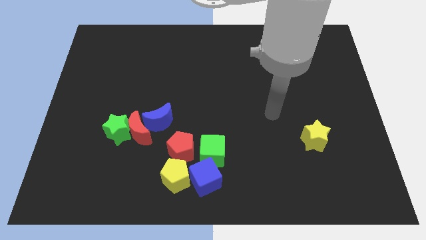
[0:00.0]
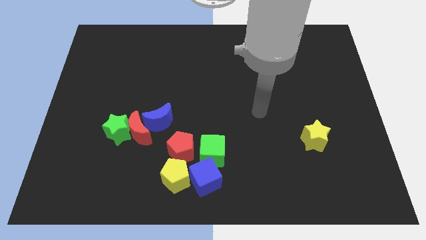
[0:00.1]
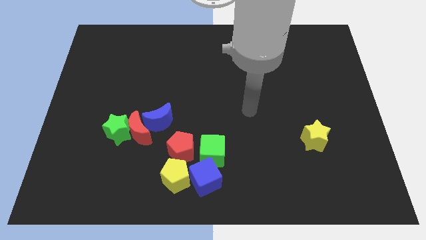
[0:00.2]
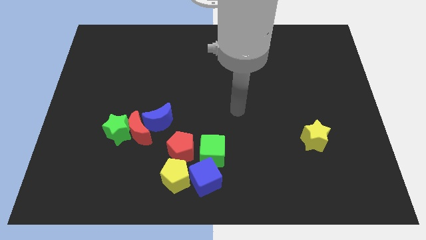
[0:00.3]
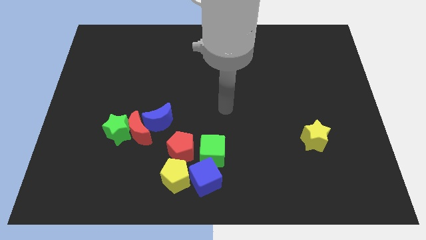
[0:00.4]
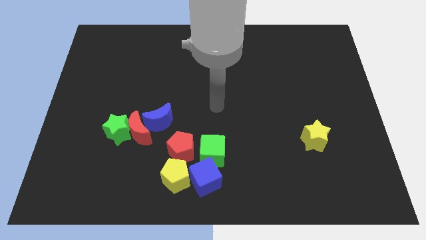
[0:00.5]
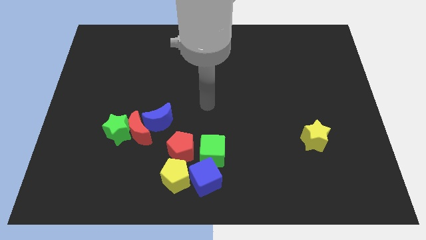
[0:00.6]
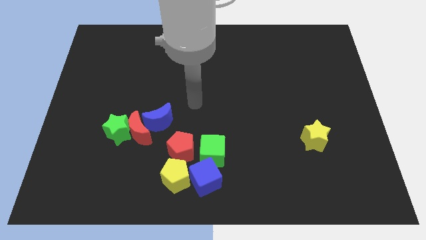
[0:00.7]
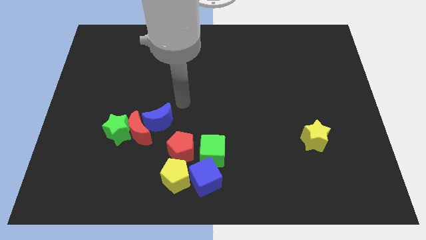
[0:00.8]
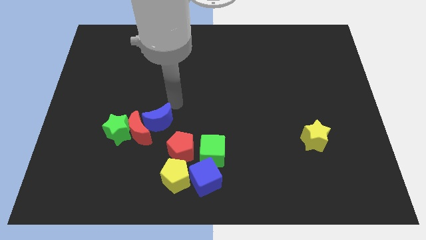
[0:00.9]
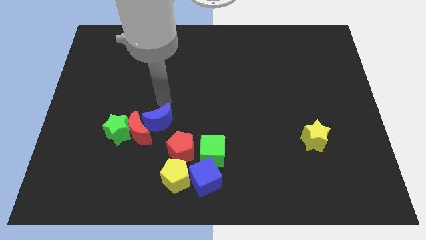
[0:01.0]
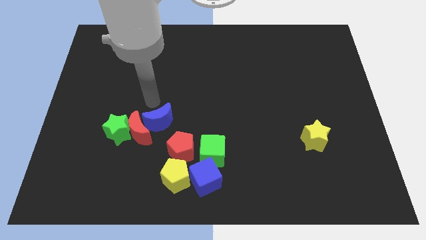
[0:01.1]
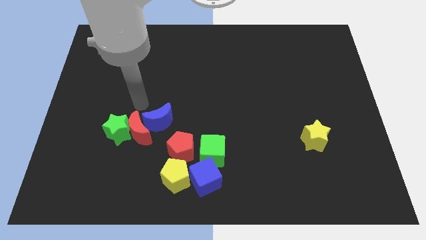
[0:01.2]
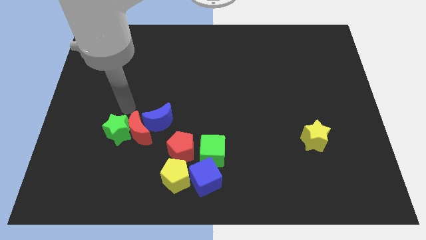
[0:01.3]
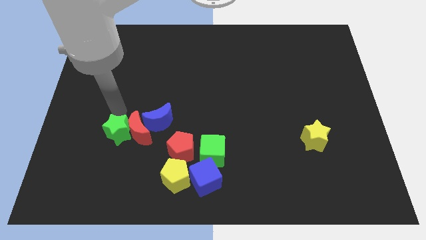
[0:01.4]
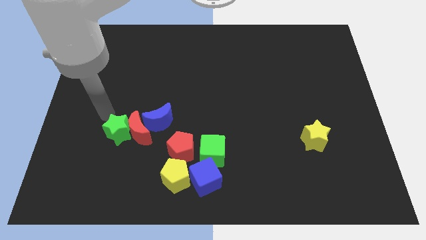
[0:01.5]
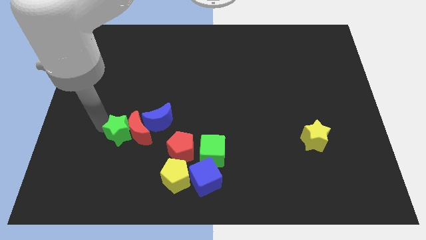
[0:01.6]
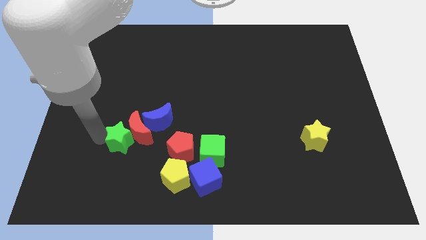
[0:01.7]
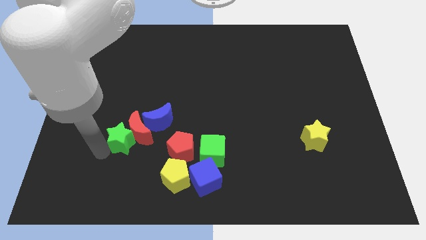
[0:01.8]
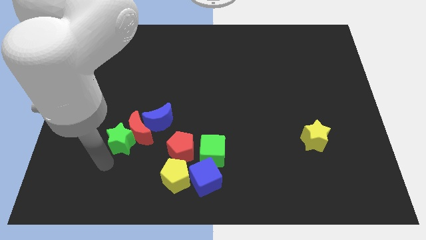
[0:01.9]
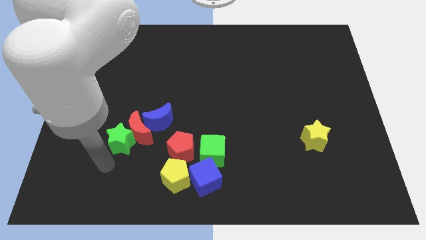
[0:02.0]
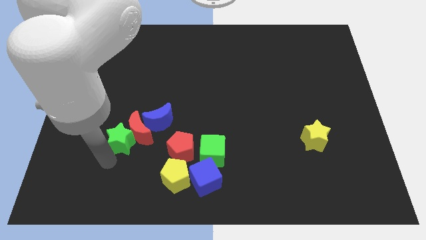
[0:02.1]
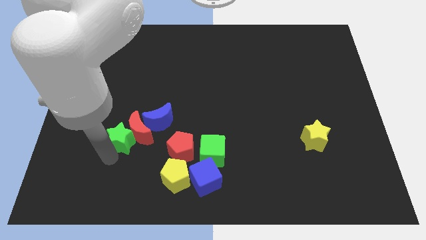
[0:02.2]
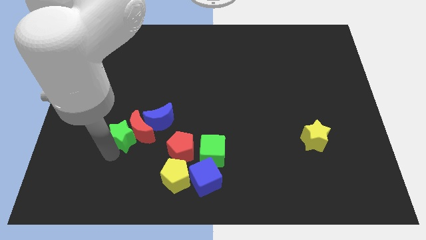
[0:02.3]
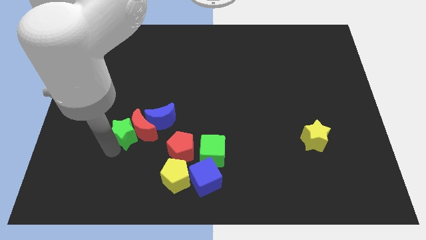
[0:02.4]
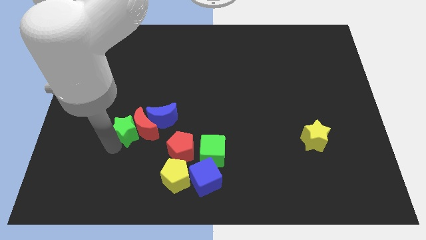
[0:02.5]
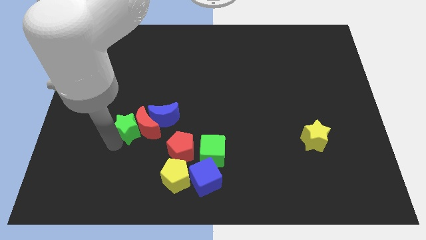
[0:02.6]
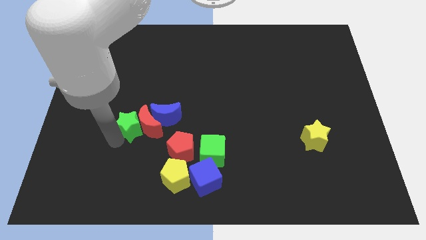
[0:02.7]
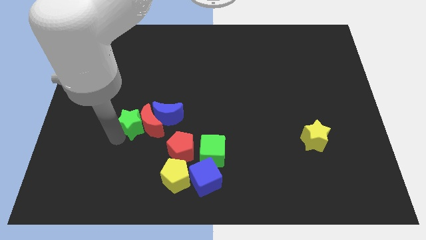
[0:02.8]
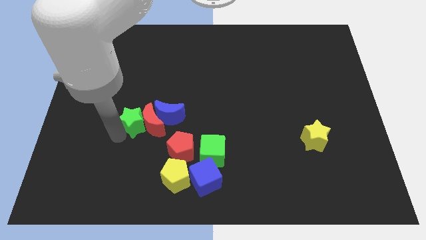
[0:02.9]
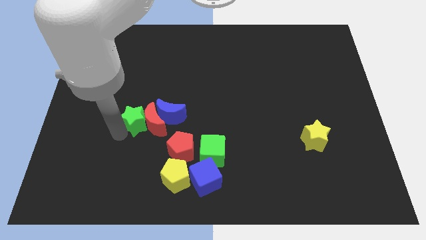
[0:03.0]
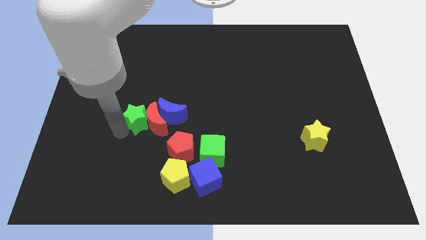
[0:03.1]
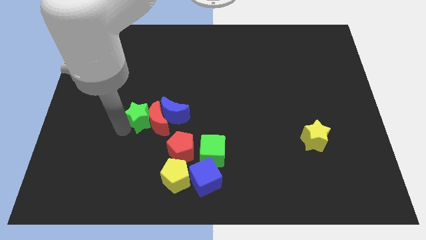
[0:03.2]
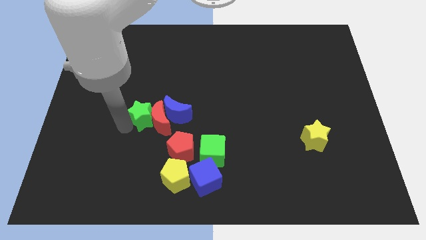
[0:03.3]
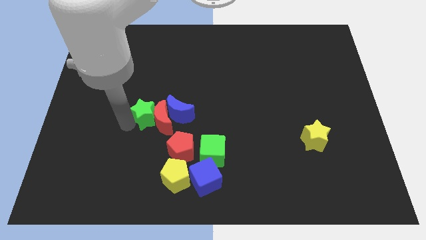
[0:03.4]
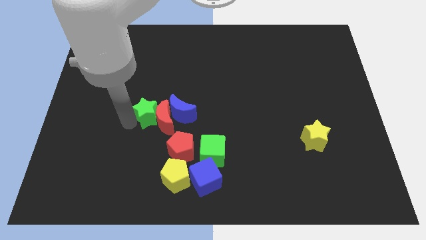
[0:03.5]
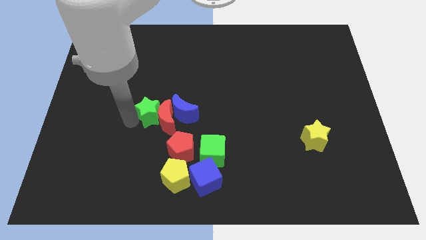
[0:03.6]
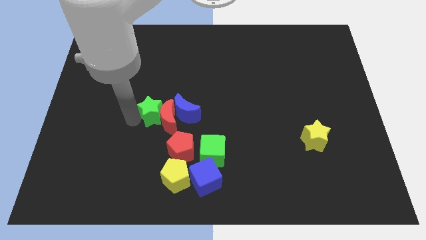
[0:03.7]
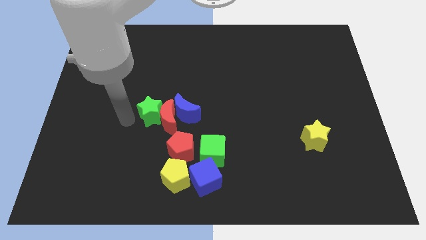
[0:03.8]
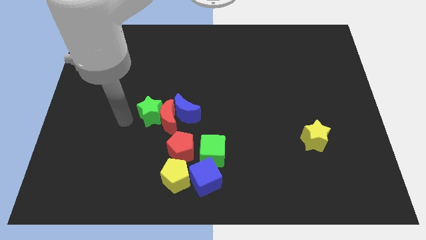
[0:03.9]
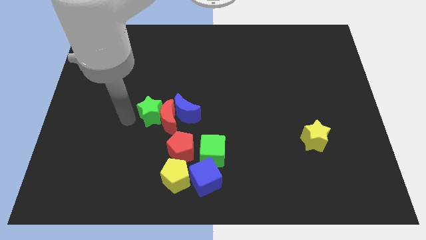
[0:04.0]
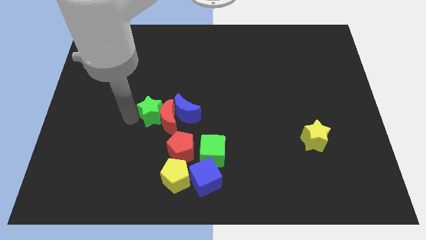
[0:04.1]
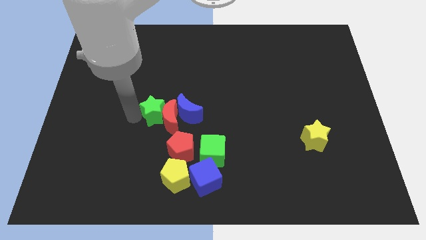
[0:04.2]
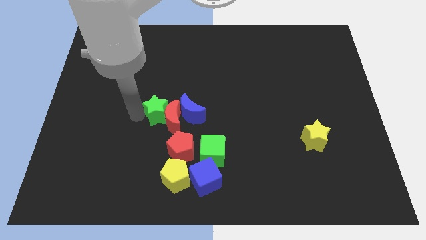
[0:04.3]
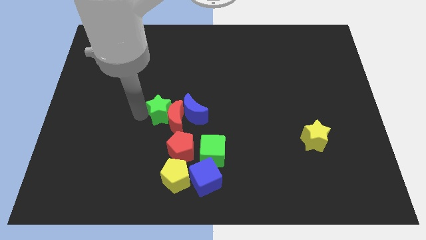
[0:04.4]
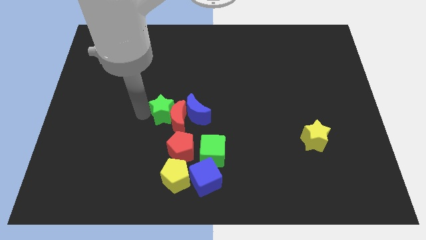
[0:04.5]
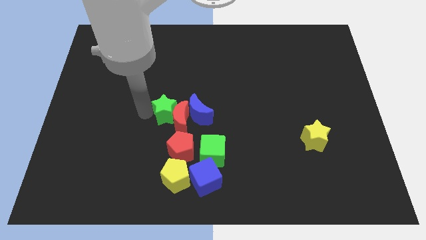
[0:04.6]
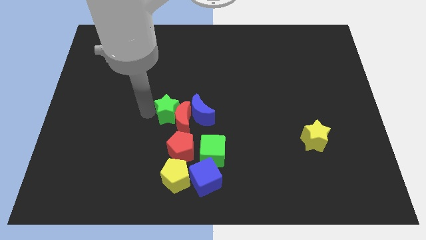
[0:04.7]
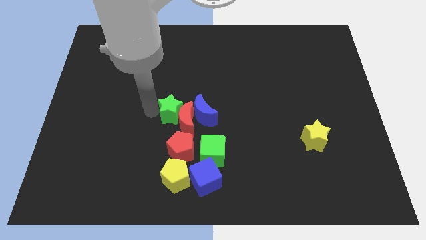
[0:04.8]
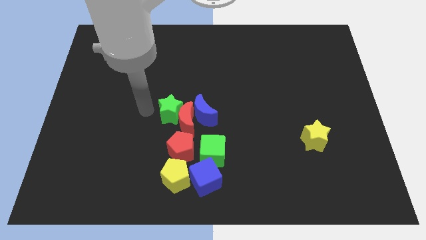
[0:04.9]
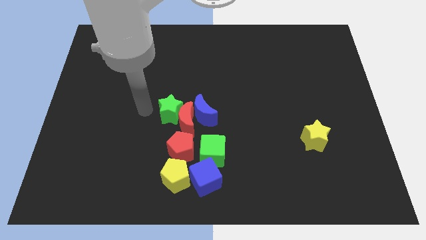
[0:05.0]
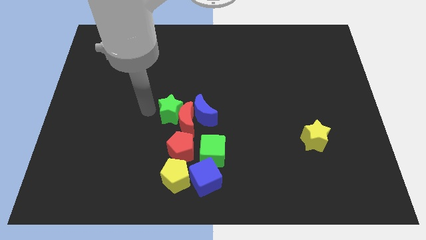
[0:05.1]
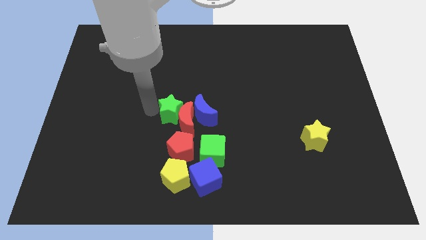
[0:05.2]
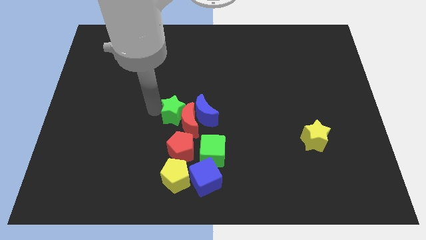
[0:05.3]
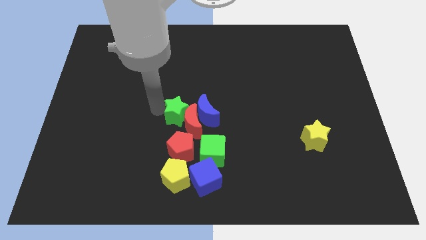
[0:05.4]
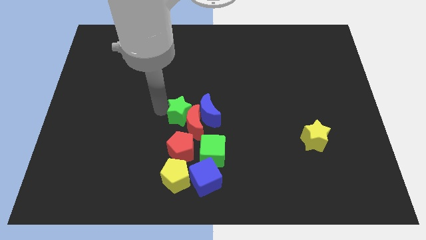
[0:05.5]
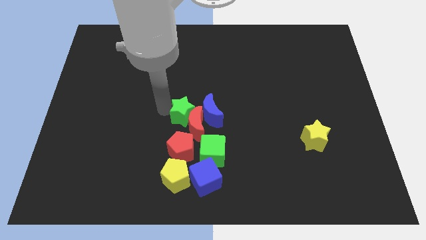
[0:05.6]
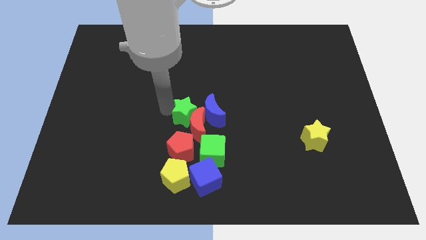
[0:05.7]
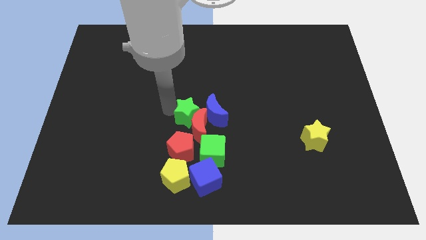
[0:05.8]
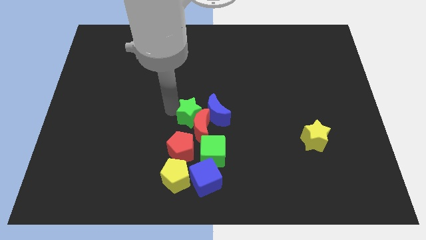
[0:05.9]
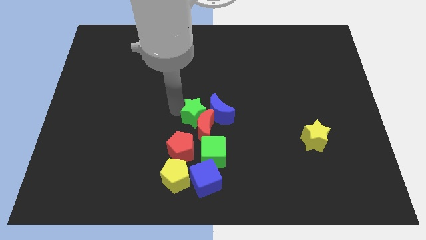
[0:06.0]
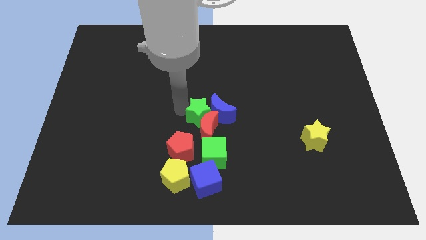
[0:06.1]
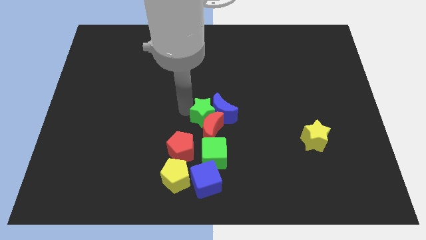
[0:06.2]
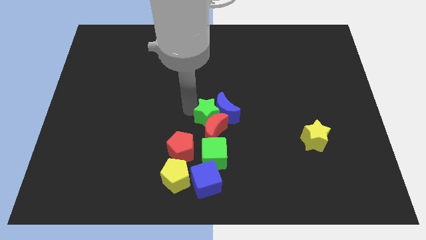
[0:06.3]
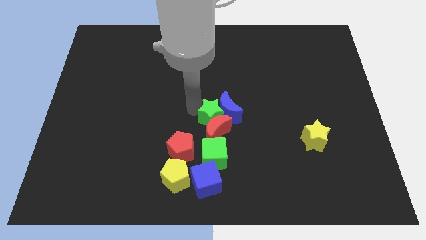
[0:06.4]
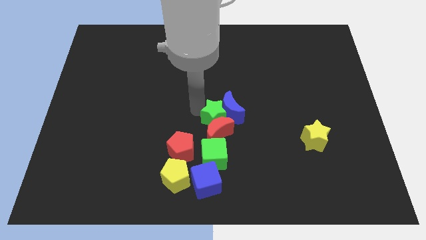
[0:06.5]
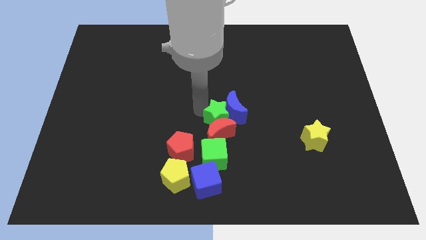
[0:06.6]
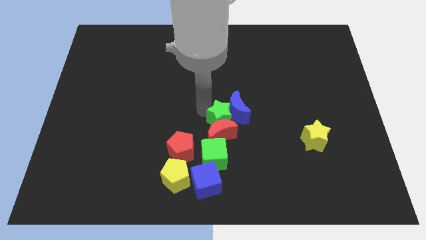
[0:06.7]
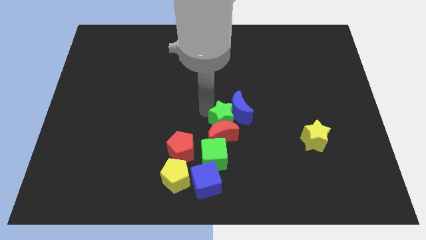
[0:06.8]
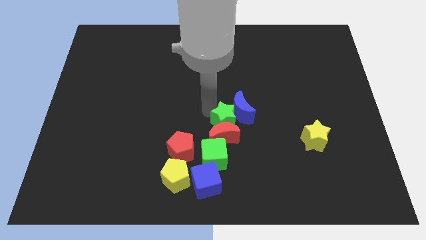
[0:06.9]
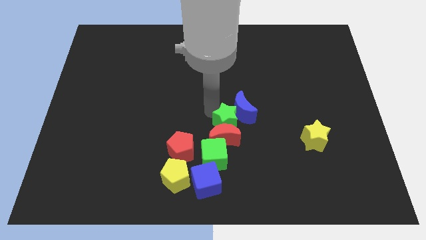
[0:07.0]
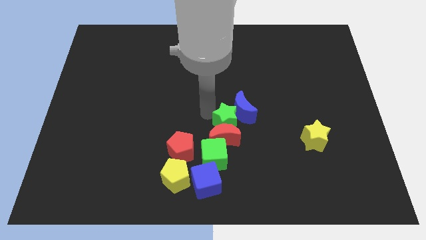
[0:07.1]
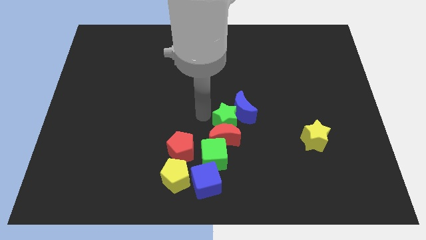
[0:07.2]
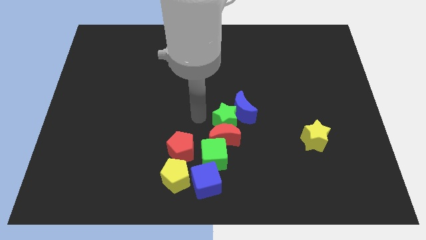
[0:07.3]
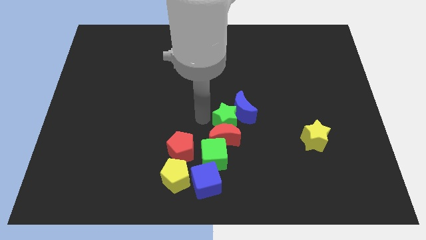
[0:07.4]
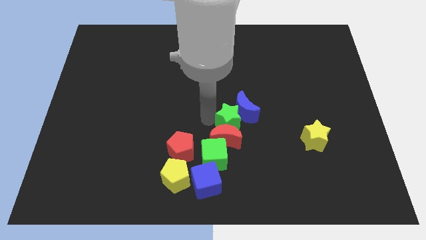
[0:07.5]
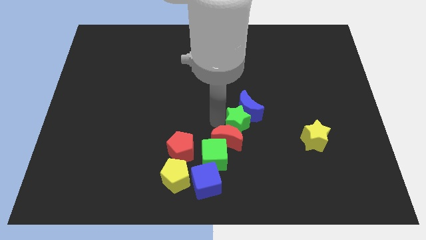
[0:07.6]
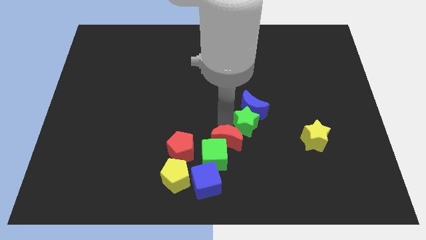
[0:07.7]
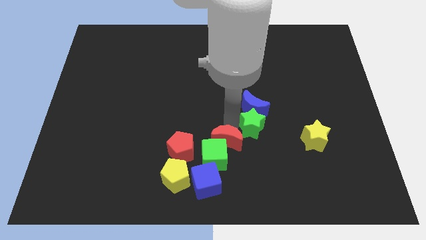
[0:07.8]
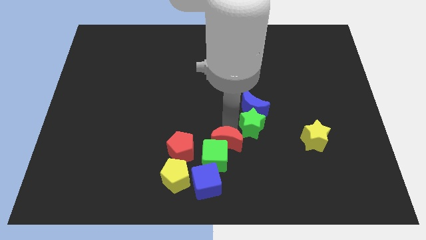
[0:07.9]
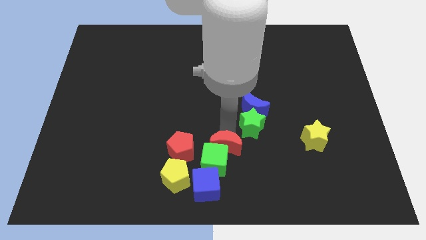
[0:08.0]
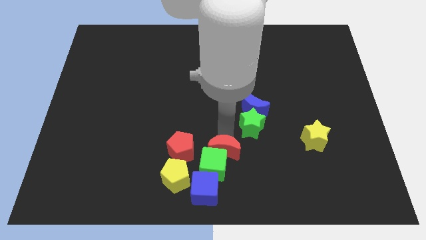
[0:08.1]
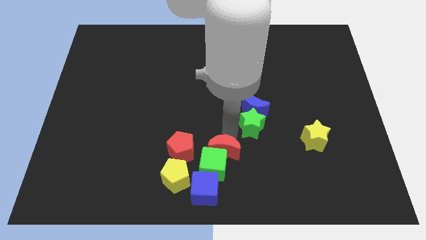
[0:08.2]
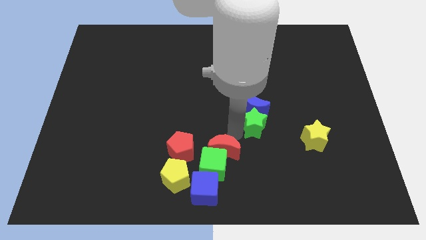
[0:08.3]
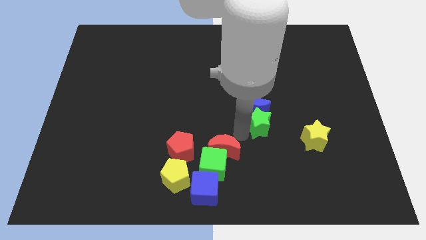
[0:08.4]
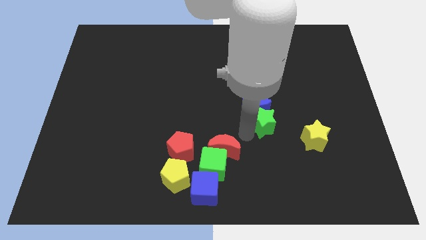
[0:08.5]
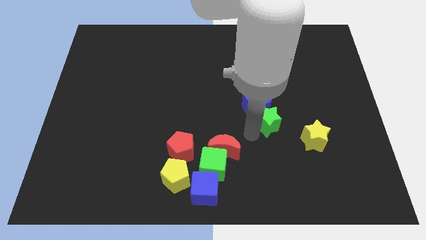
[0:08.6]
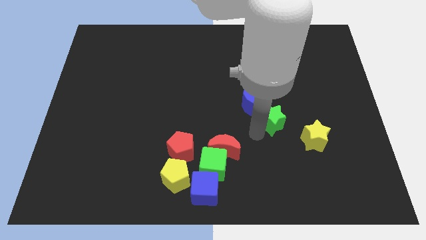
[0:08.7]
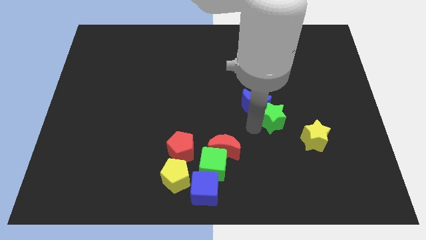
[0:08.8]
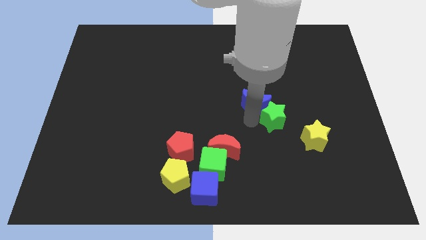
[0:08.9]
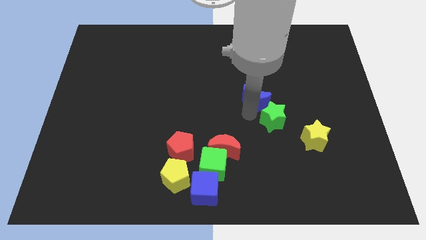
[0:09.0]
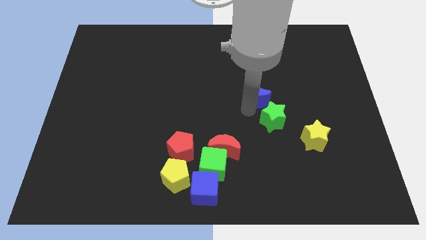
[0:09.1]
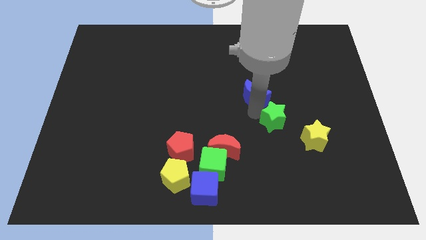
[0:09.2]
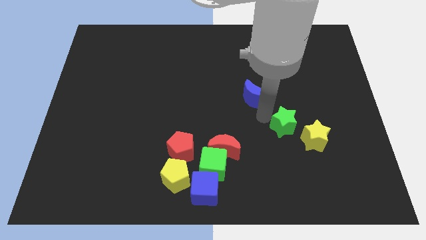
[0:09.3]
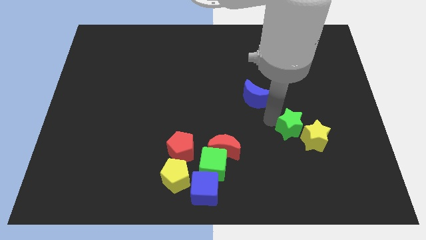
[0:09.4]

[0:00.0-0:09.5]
slide the green star next to the yellow star
